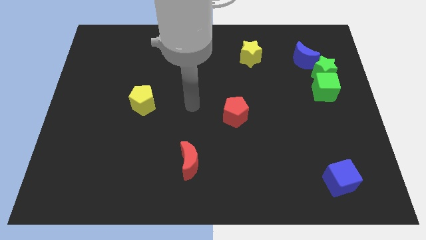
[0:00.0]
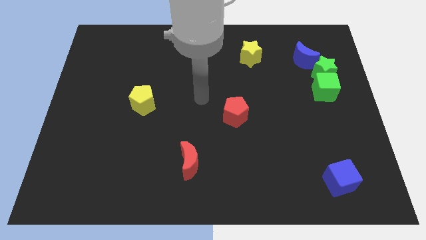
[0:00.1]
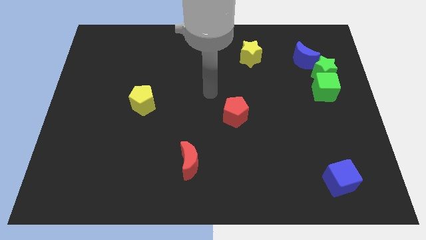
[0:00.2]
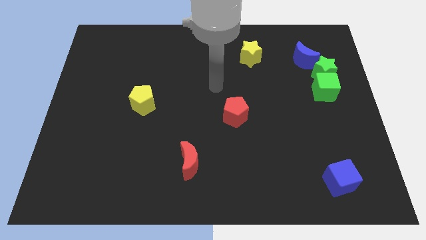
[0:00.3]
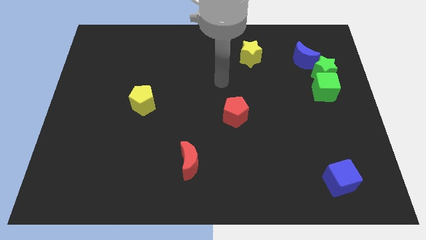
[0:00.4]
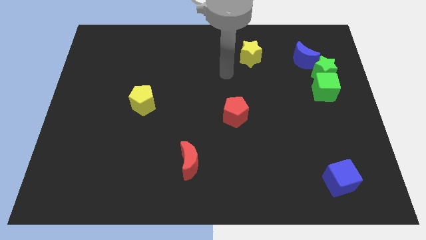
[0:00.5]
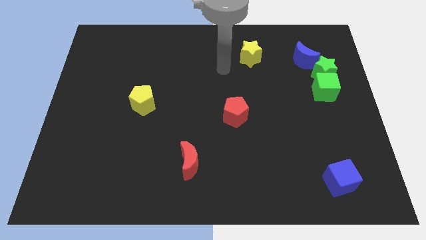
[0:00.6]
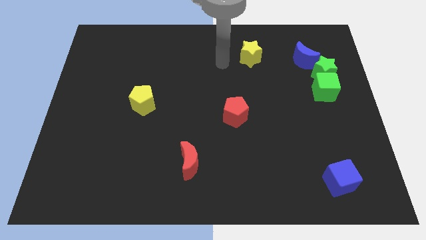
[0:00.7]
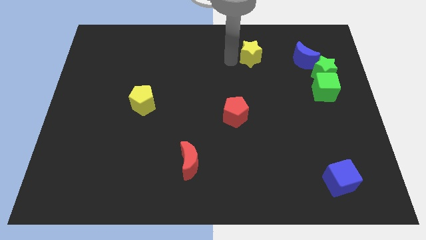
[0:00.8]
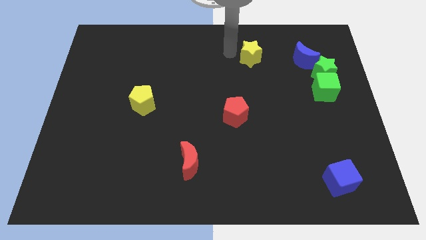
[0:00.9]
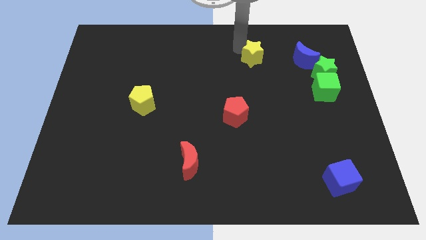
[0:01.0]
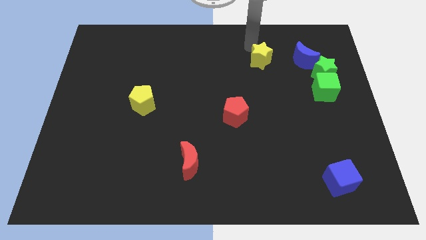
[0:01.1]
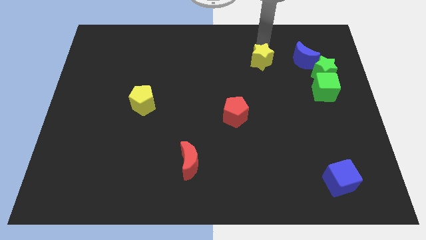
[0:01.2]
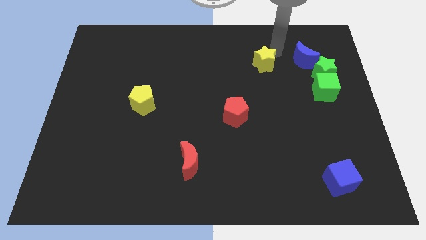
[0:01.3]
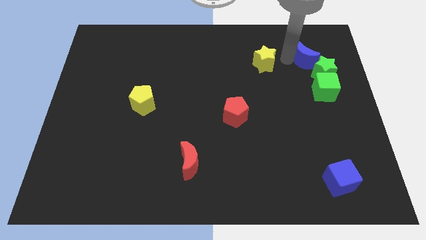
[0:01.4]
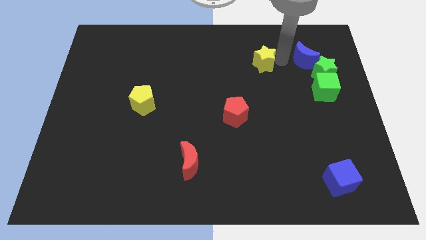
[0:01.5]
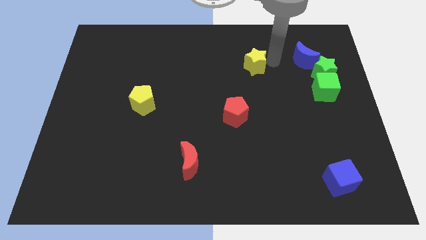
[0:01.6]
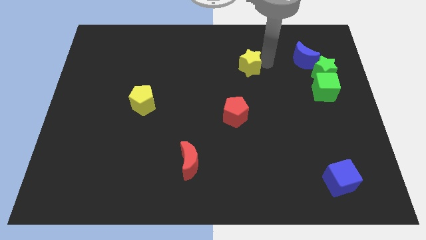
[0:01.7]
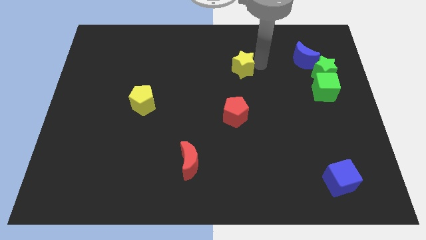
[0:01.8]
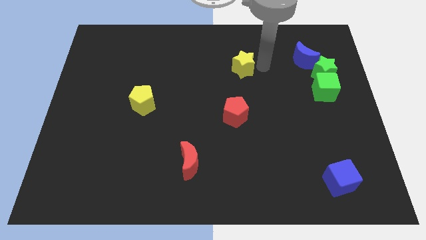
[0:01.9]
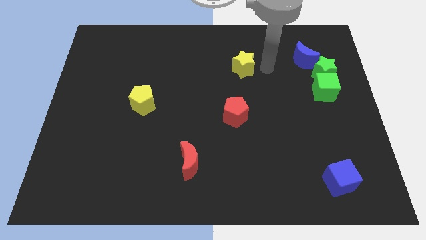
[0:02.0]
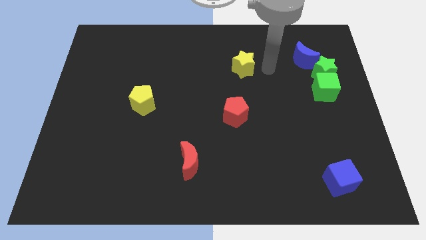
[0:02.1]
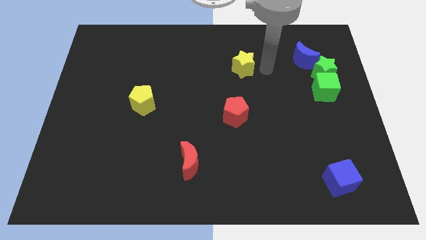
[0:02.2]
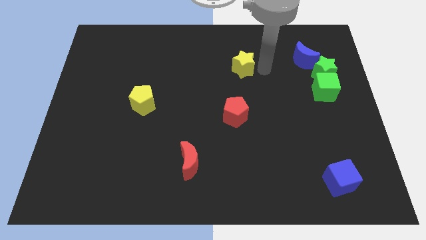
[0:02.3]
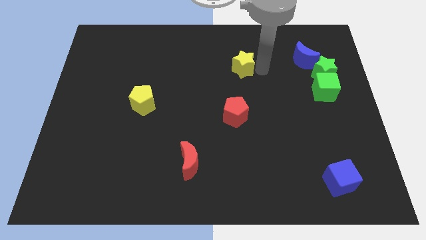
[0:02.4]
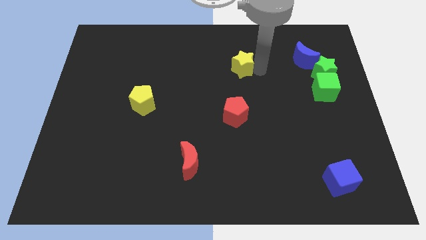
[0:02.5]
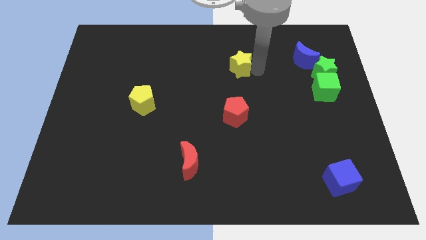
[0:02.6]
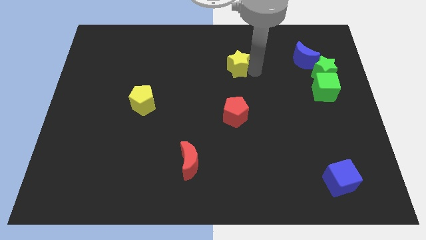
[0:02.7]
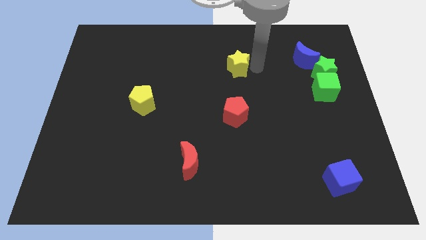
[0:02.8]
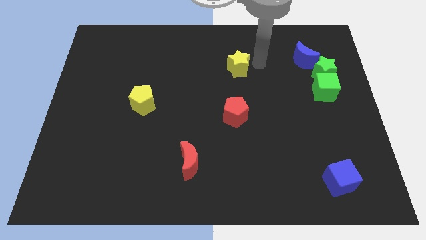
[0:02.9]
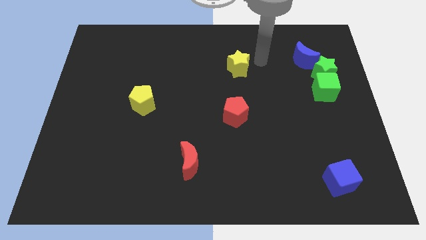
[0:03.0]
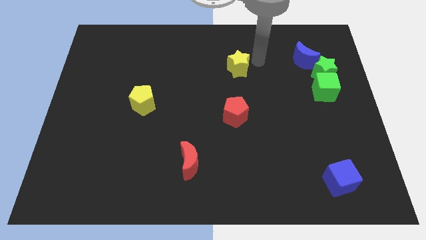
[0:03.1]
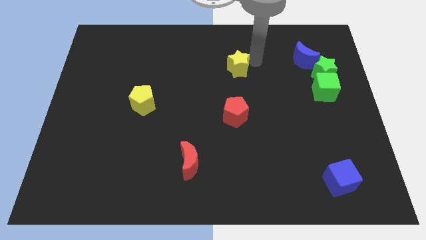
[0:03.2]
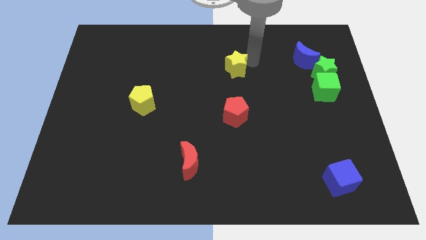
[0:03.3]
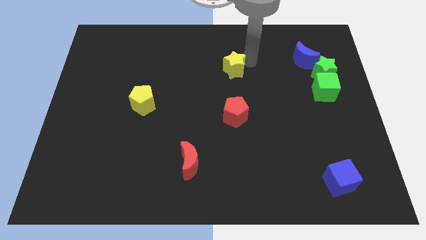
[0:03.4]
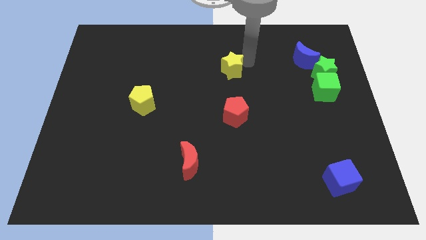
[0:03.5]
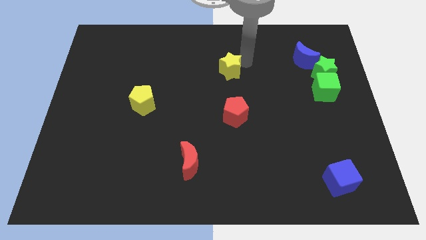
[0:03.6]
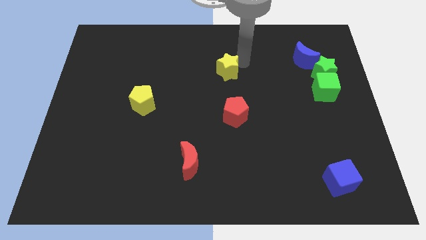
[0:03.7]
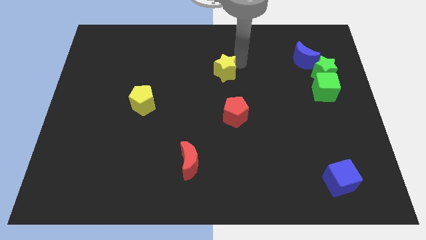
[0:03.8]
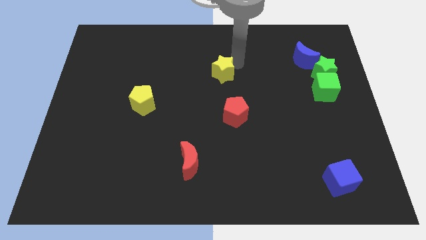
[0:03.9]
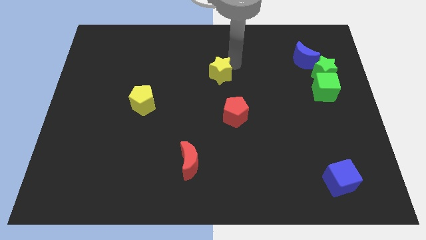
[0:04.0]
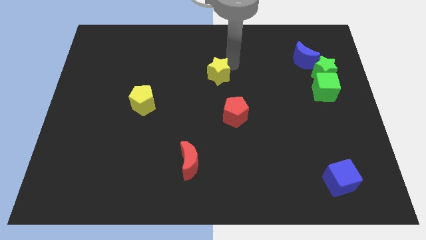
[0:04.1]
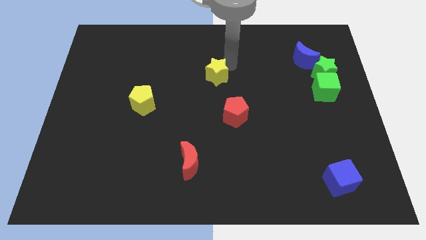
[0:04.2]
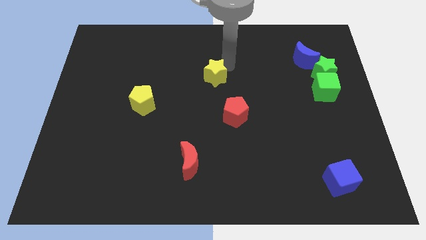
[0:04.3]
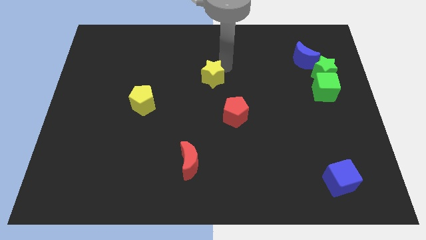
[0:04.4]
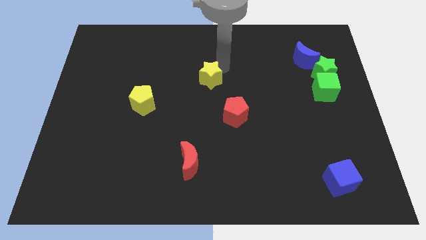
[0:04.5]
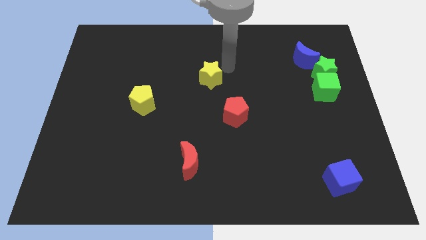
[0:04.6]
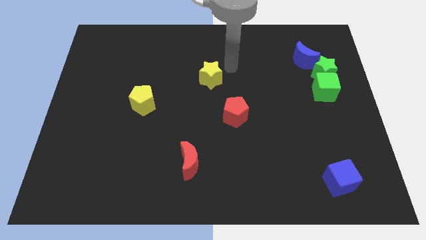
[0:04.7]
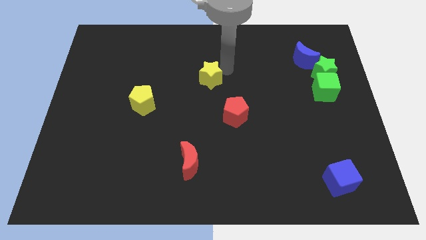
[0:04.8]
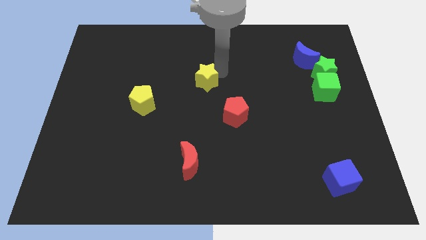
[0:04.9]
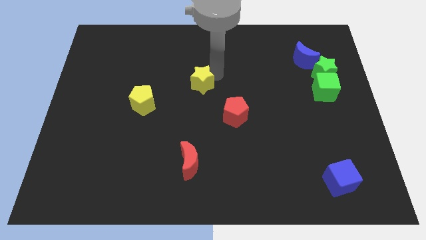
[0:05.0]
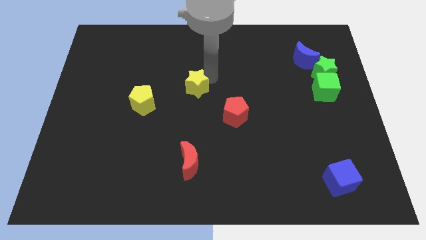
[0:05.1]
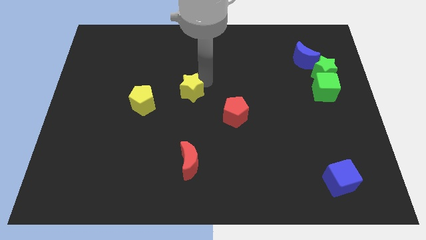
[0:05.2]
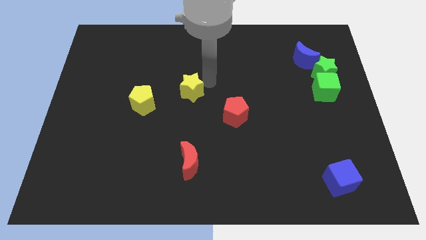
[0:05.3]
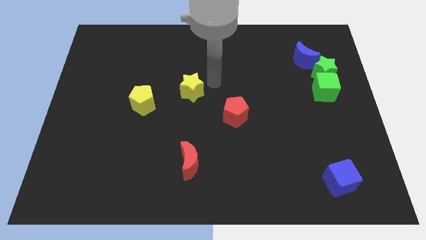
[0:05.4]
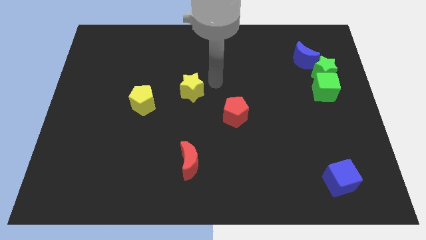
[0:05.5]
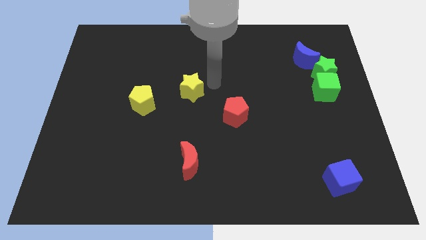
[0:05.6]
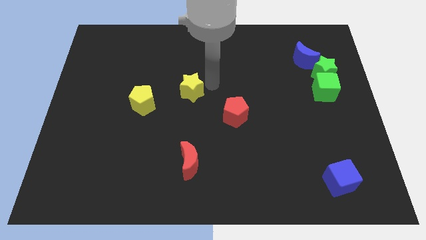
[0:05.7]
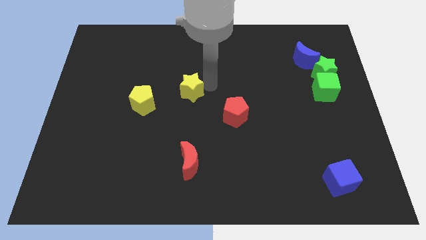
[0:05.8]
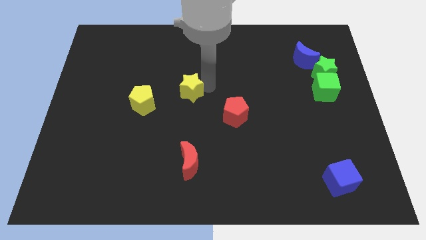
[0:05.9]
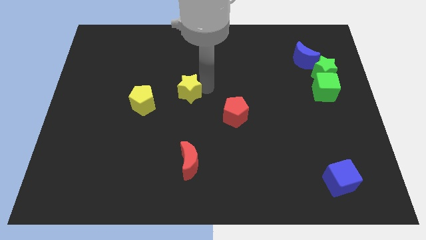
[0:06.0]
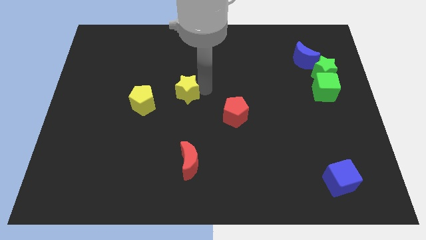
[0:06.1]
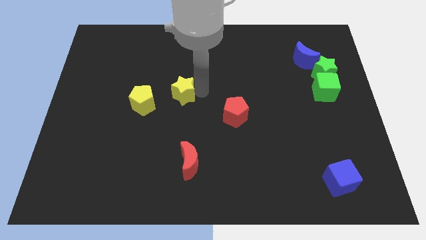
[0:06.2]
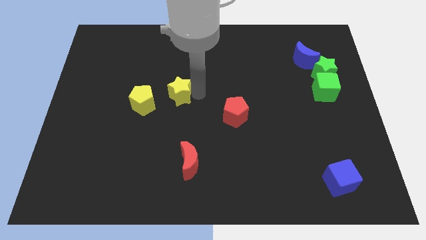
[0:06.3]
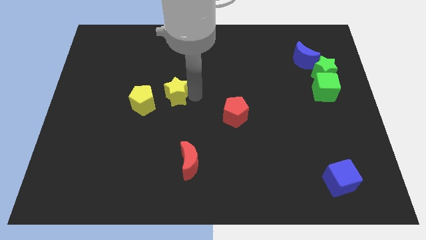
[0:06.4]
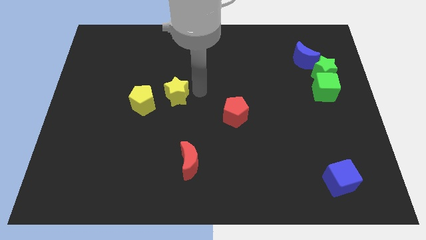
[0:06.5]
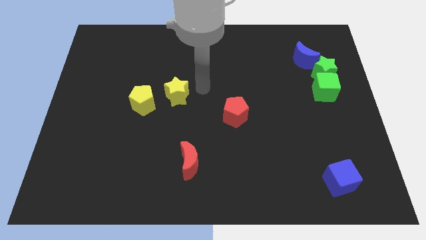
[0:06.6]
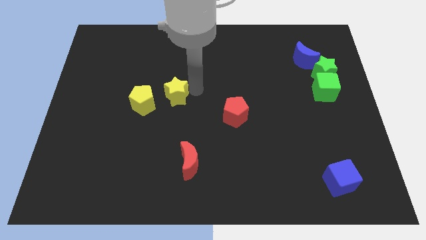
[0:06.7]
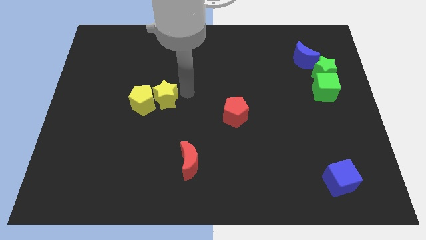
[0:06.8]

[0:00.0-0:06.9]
slide the yellow star next to the yellow pentagon

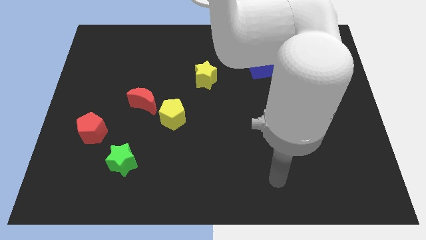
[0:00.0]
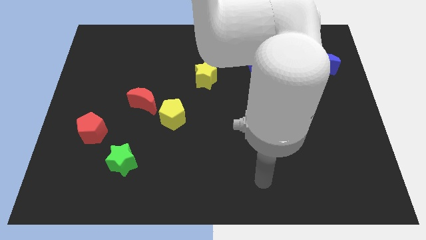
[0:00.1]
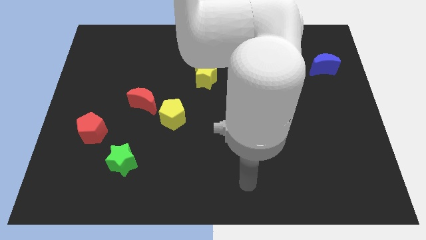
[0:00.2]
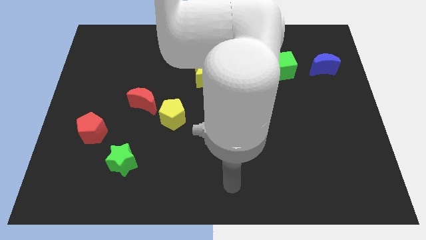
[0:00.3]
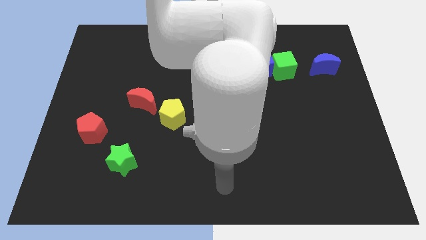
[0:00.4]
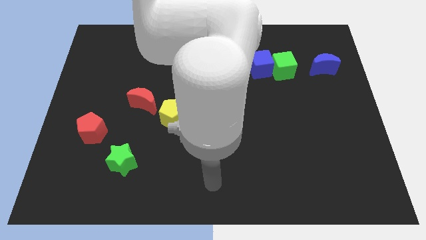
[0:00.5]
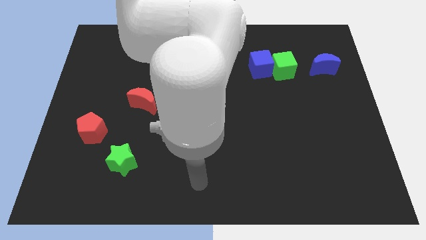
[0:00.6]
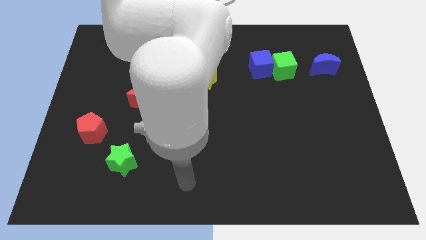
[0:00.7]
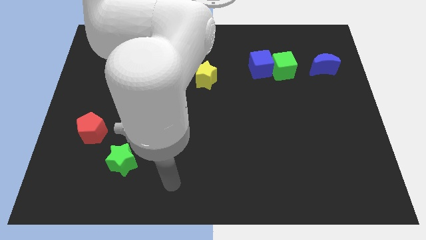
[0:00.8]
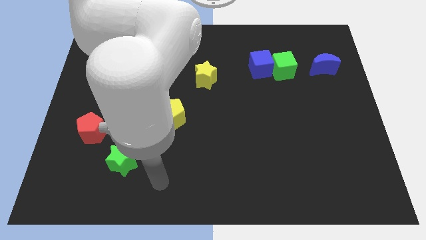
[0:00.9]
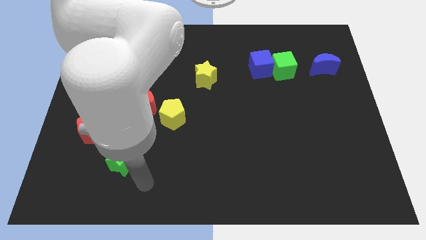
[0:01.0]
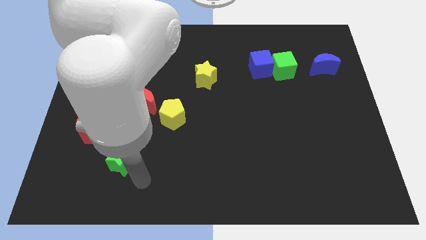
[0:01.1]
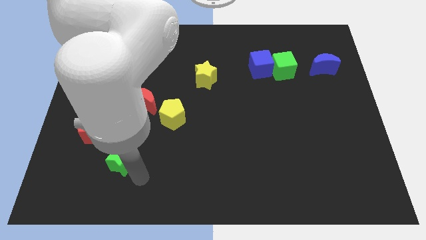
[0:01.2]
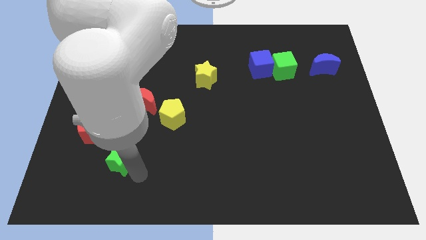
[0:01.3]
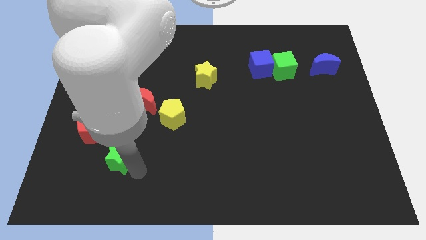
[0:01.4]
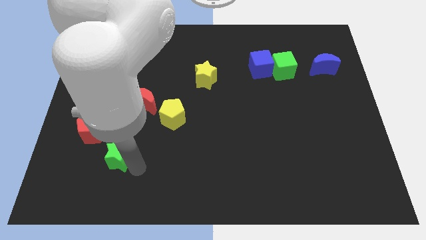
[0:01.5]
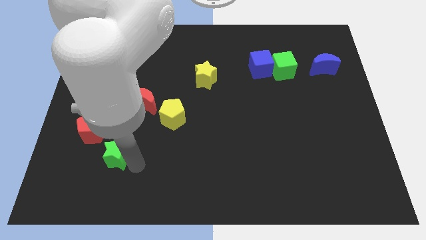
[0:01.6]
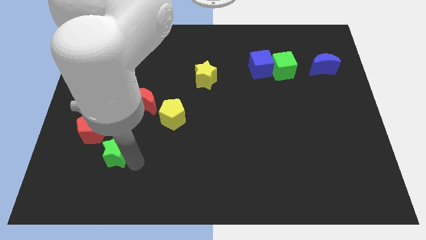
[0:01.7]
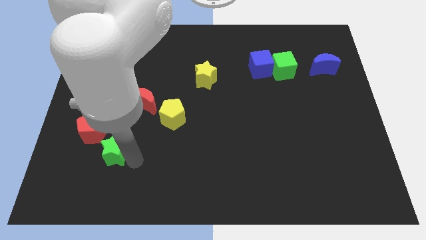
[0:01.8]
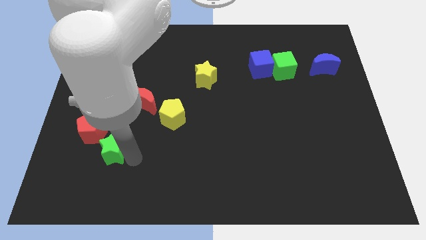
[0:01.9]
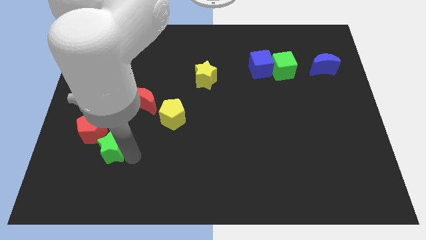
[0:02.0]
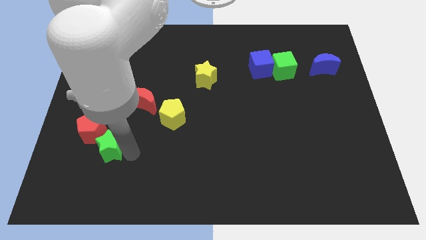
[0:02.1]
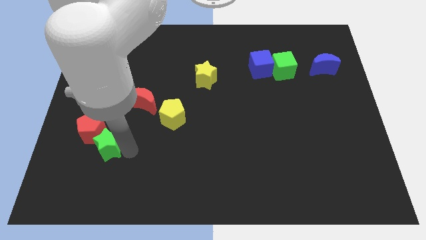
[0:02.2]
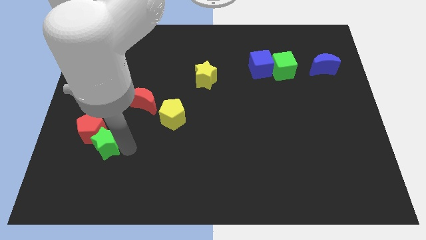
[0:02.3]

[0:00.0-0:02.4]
put the green star towards the red pentagon
